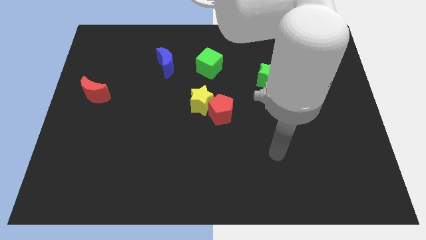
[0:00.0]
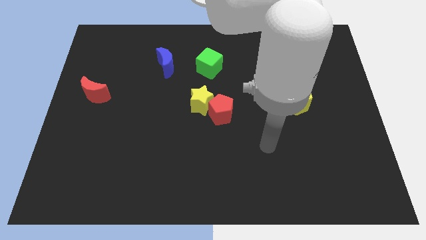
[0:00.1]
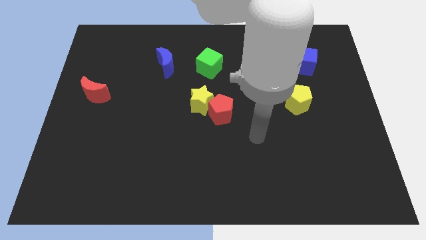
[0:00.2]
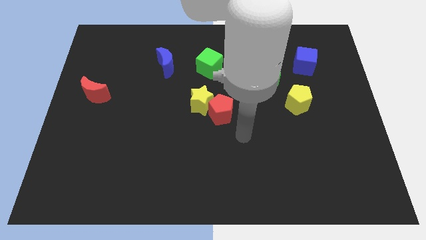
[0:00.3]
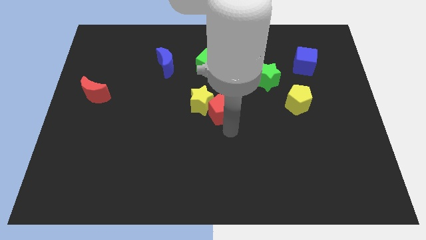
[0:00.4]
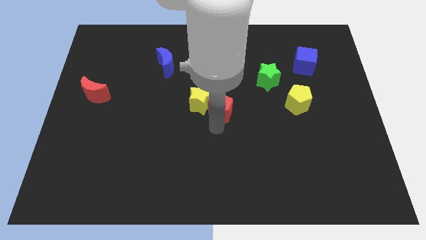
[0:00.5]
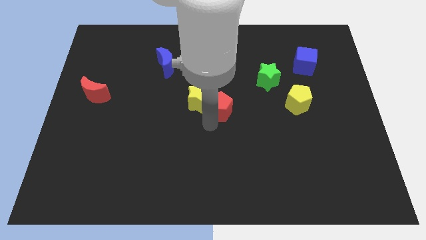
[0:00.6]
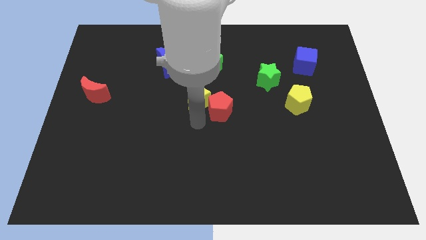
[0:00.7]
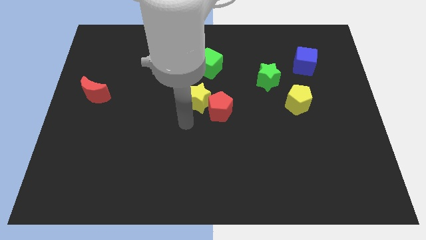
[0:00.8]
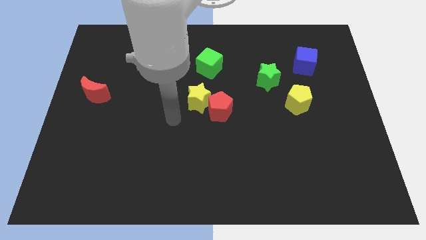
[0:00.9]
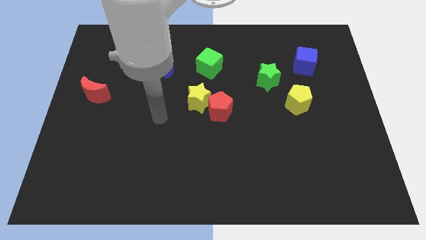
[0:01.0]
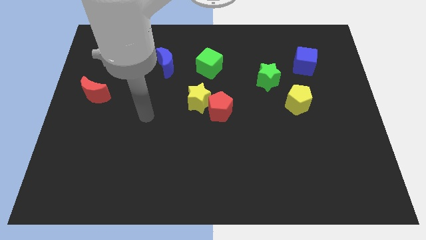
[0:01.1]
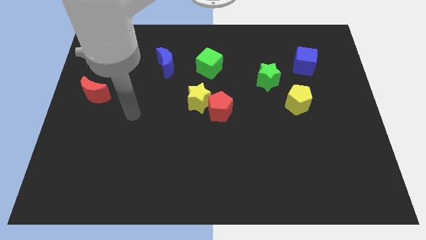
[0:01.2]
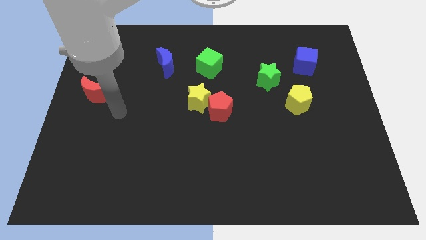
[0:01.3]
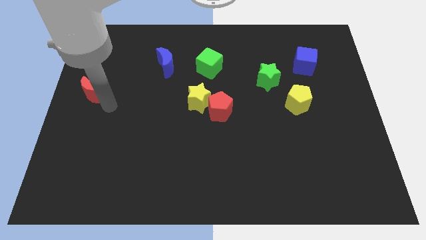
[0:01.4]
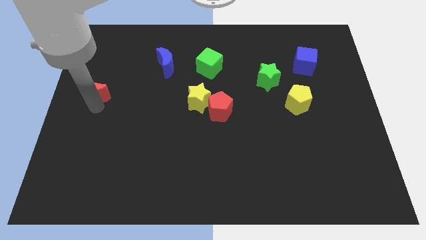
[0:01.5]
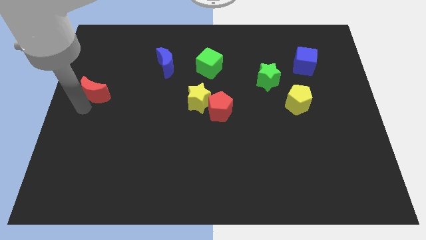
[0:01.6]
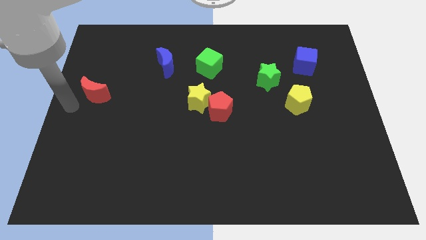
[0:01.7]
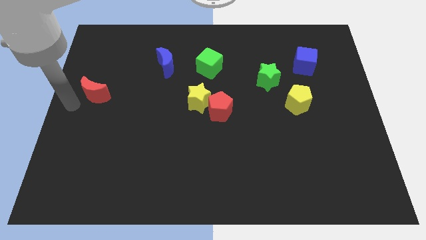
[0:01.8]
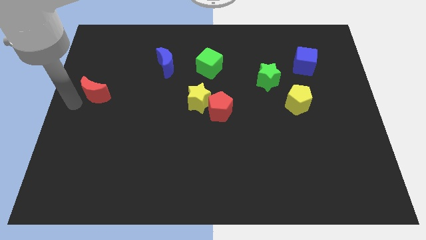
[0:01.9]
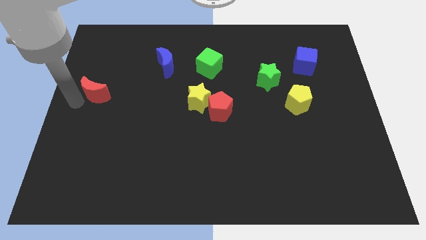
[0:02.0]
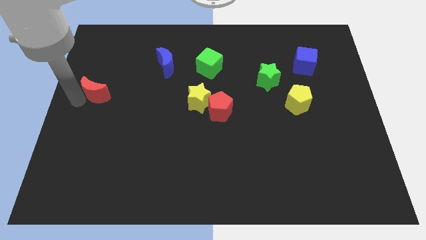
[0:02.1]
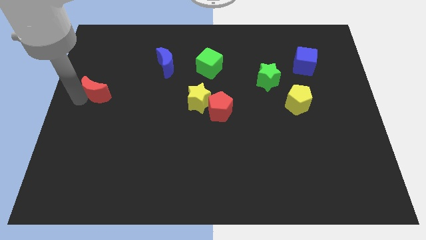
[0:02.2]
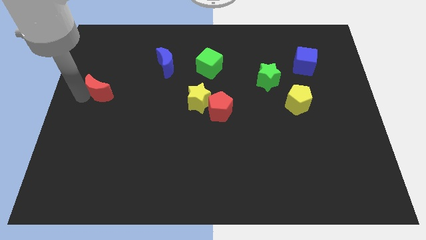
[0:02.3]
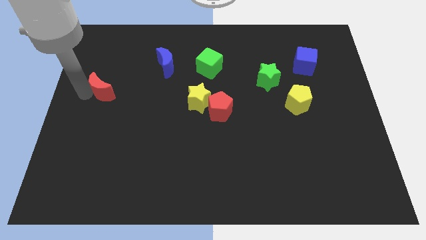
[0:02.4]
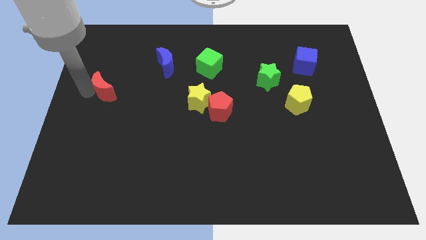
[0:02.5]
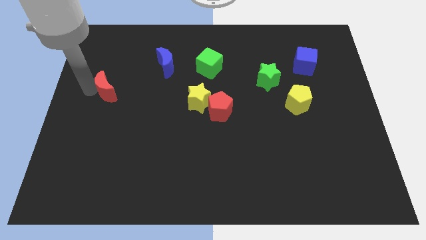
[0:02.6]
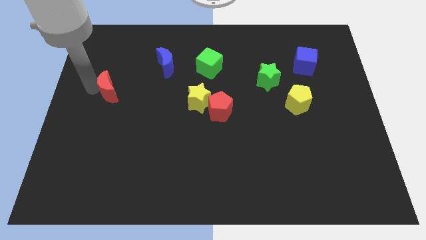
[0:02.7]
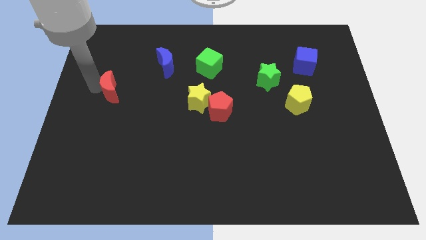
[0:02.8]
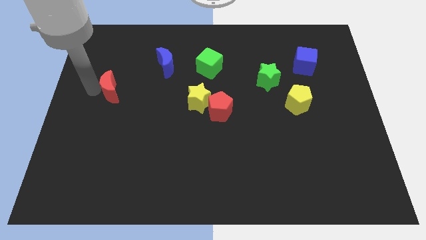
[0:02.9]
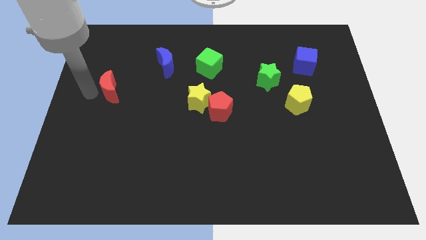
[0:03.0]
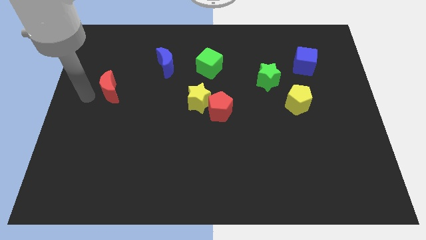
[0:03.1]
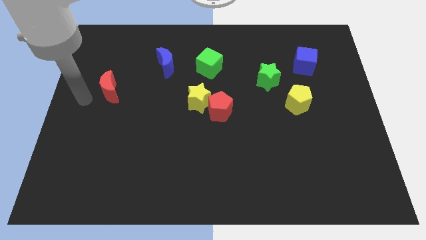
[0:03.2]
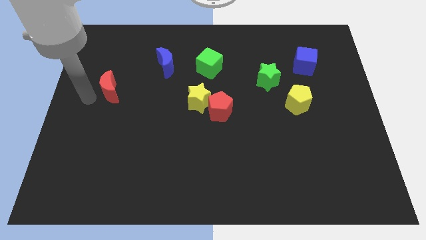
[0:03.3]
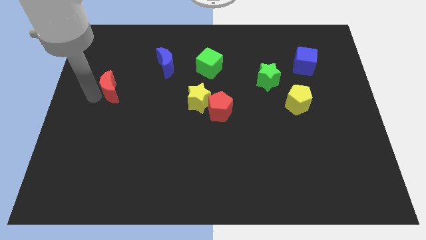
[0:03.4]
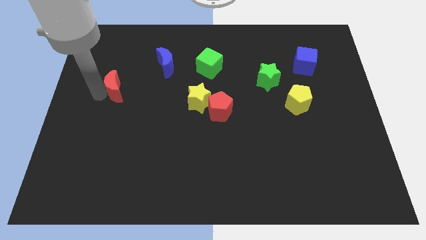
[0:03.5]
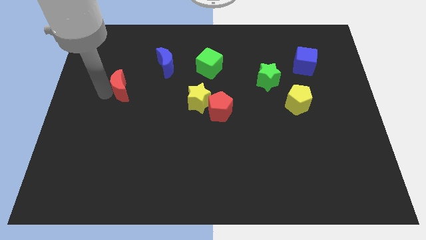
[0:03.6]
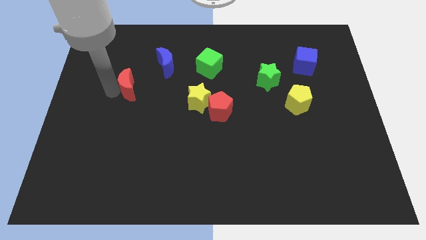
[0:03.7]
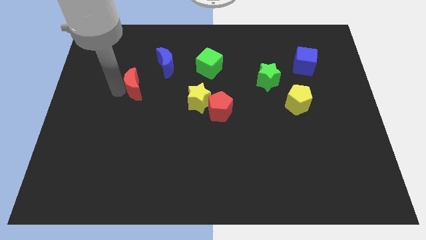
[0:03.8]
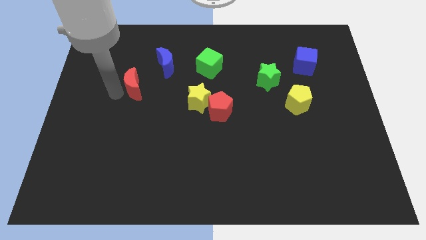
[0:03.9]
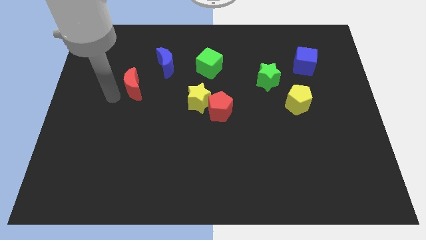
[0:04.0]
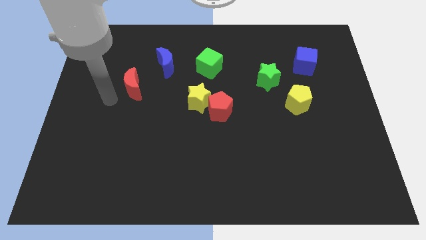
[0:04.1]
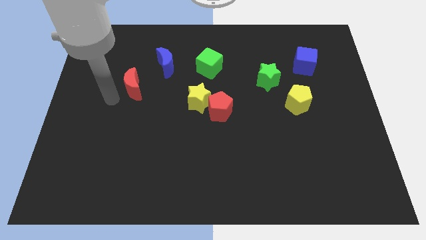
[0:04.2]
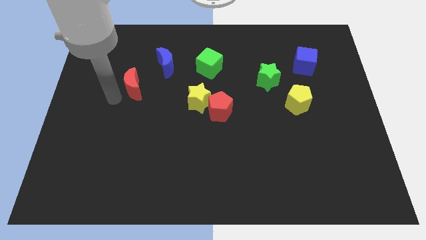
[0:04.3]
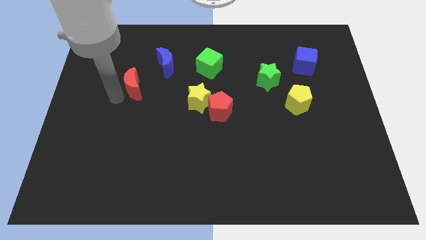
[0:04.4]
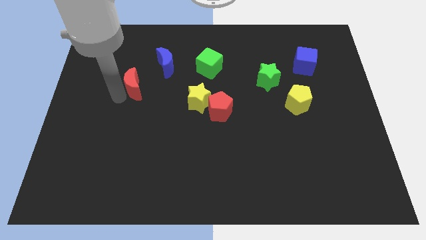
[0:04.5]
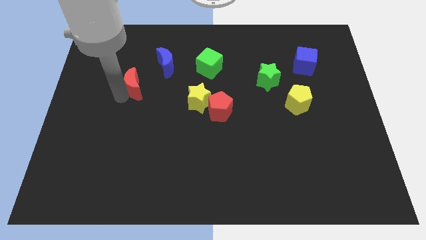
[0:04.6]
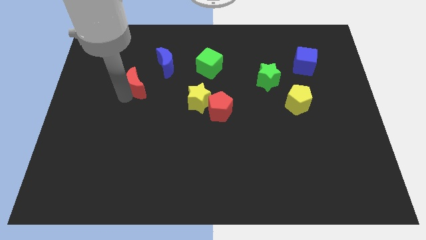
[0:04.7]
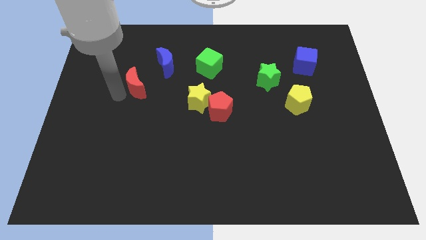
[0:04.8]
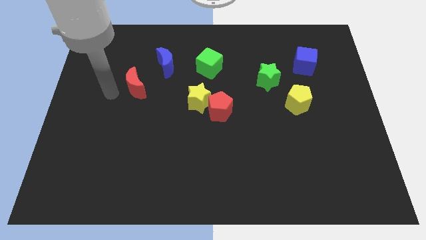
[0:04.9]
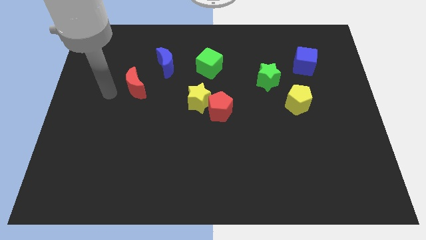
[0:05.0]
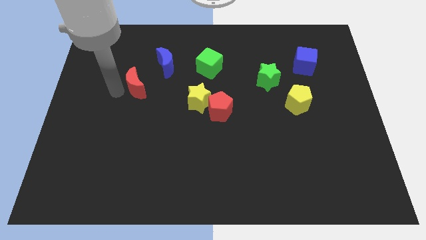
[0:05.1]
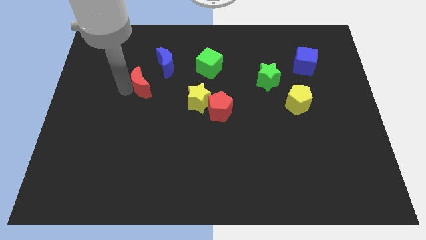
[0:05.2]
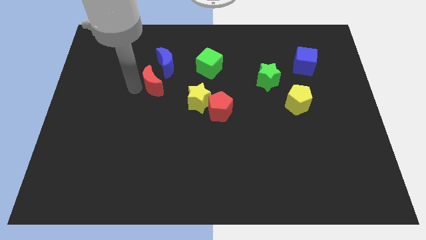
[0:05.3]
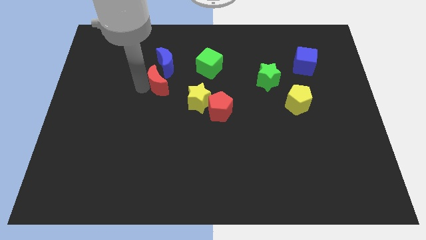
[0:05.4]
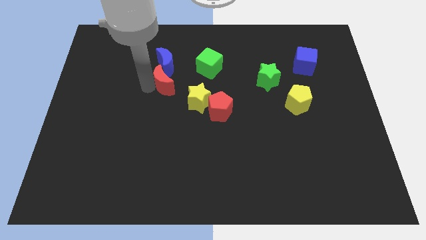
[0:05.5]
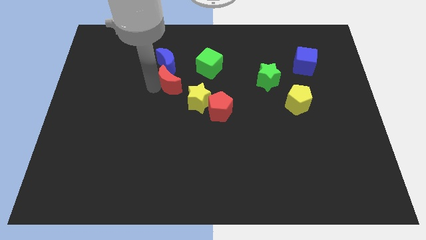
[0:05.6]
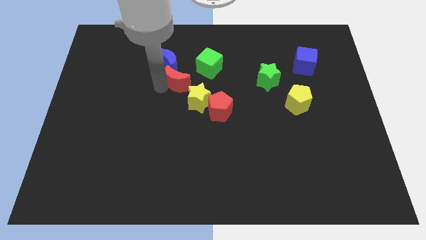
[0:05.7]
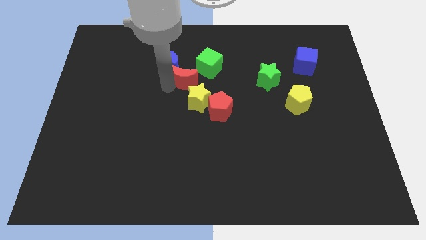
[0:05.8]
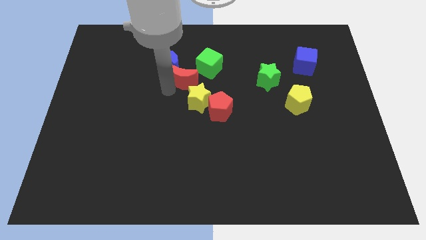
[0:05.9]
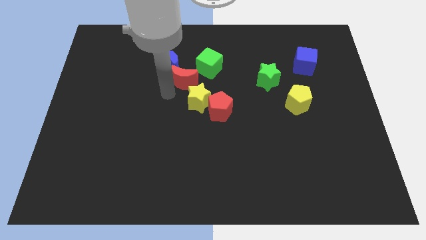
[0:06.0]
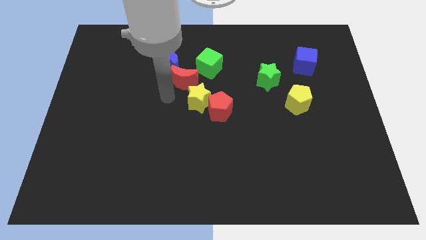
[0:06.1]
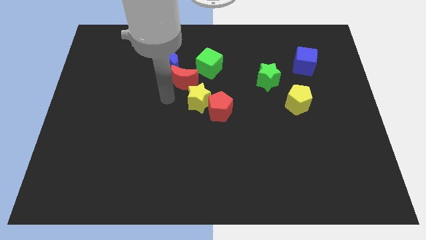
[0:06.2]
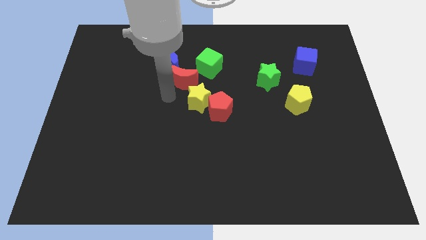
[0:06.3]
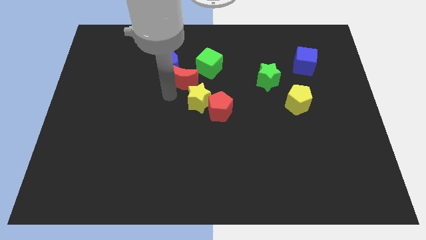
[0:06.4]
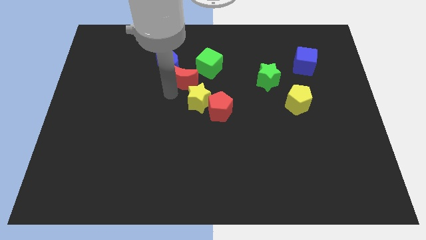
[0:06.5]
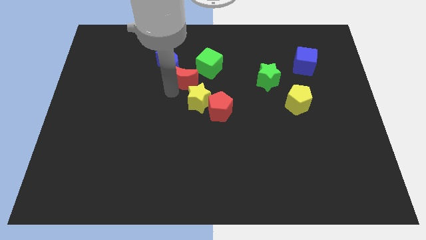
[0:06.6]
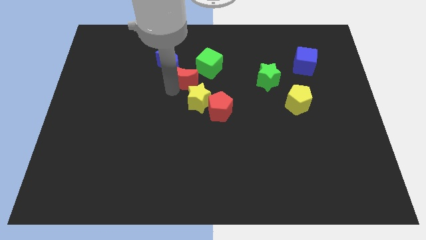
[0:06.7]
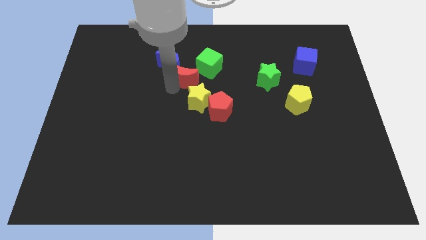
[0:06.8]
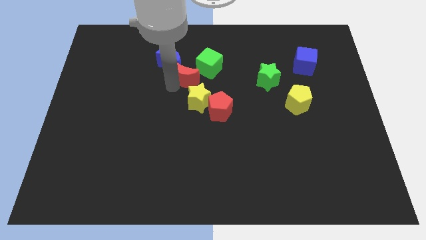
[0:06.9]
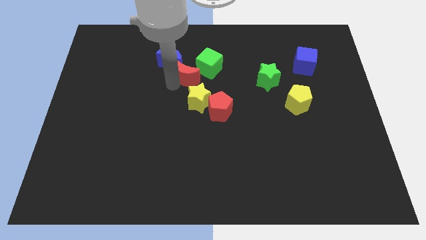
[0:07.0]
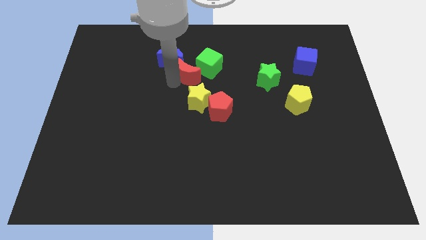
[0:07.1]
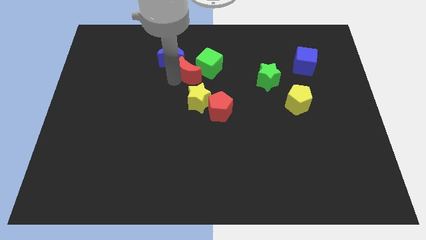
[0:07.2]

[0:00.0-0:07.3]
slide the red moon to the green cube

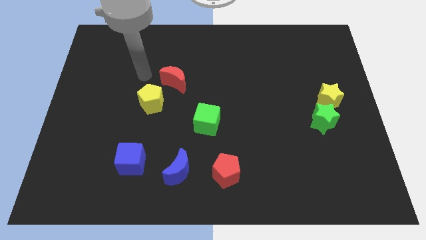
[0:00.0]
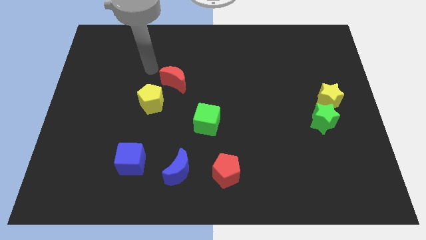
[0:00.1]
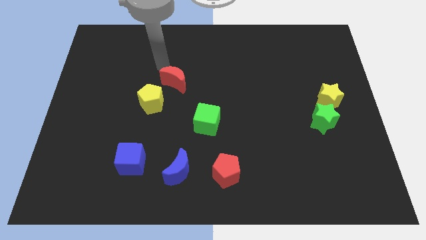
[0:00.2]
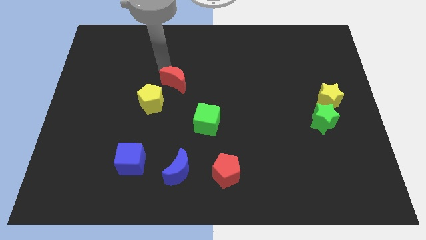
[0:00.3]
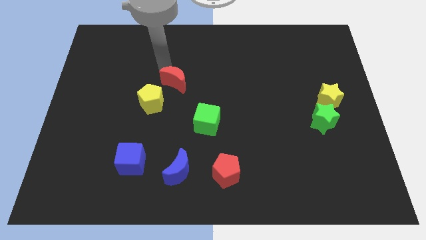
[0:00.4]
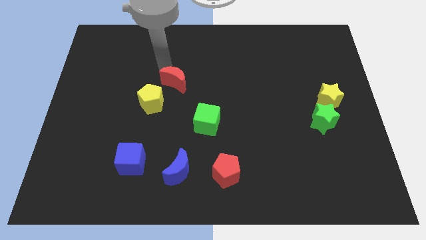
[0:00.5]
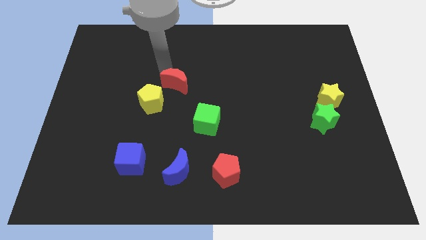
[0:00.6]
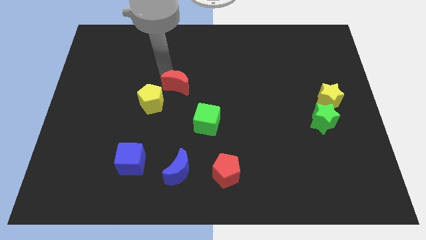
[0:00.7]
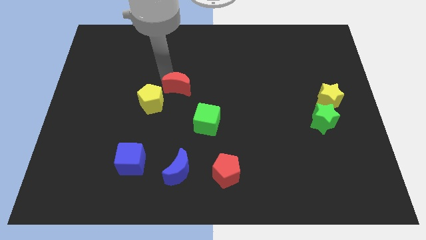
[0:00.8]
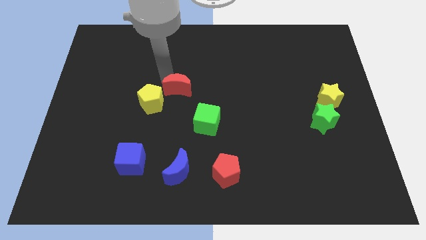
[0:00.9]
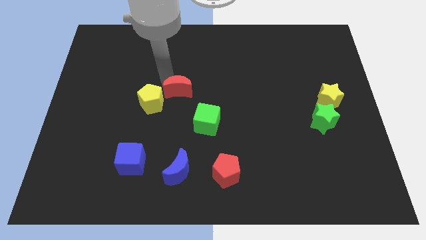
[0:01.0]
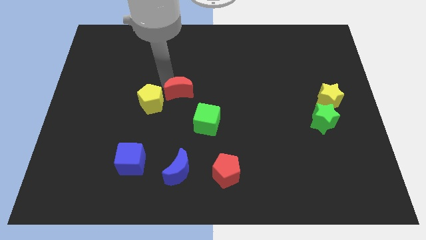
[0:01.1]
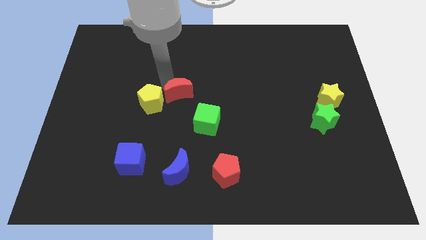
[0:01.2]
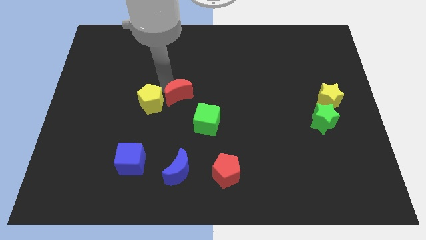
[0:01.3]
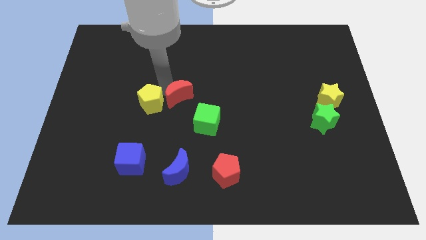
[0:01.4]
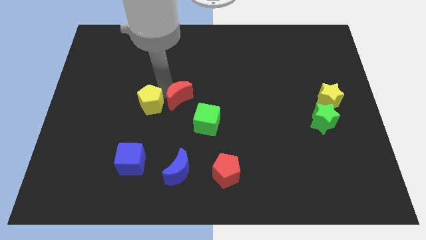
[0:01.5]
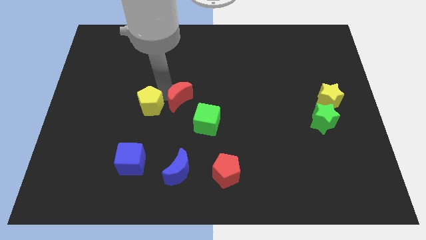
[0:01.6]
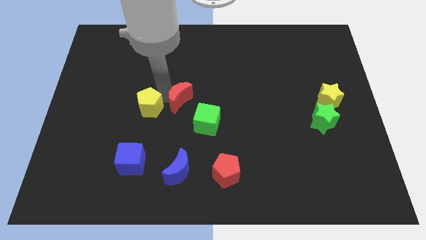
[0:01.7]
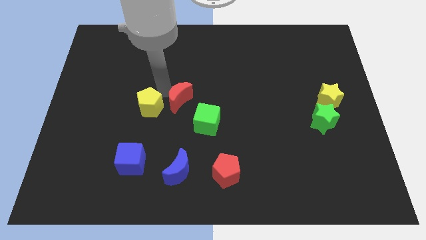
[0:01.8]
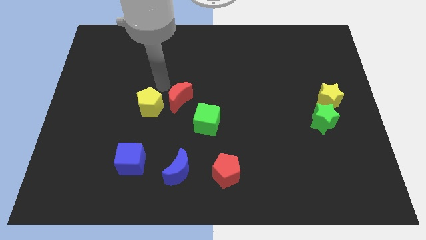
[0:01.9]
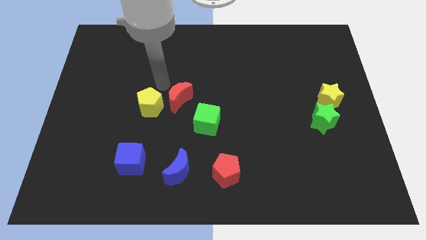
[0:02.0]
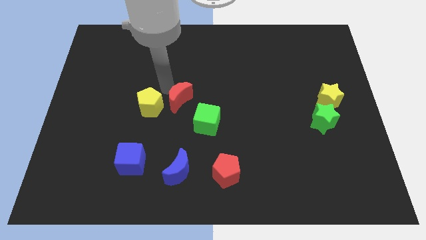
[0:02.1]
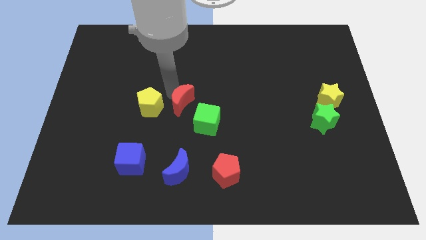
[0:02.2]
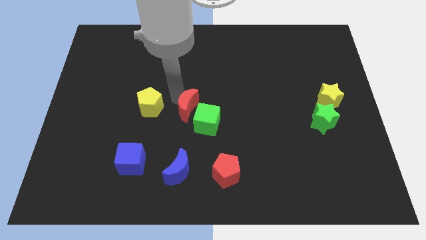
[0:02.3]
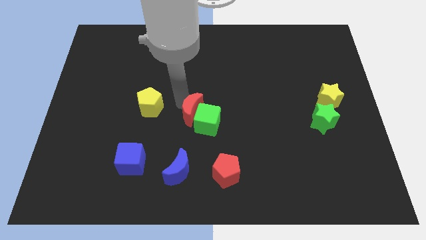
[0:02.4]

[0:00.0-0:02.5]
move the red moon towards the green cube
